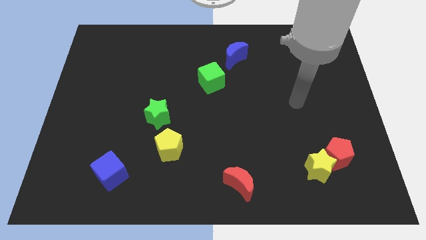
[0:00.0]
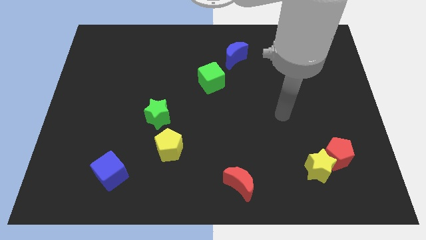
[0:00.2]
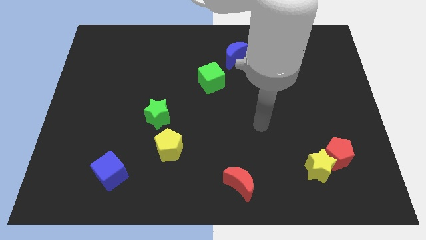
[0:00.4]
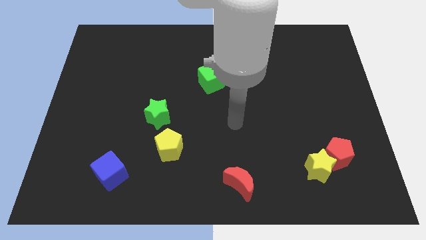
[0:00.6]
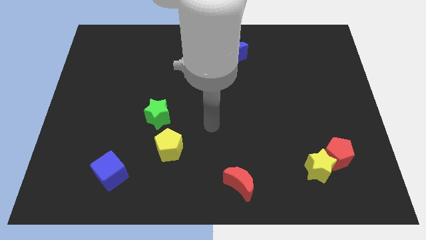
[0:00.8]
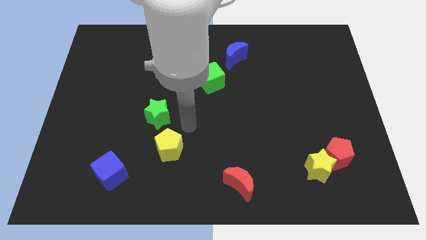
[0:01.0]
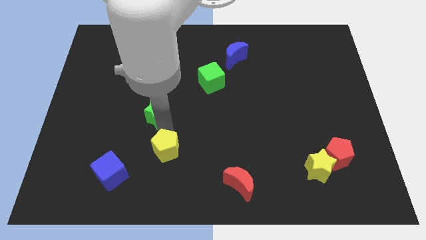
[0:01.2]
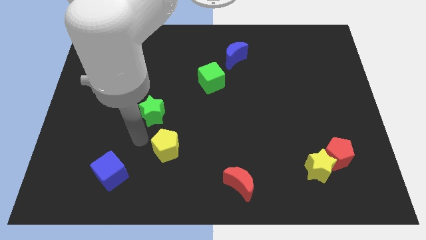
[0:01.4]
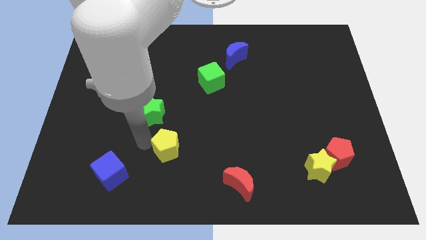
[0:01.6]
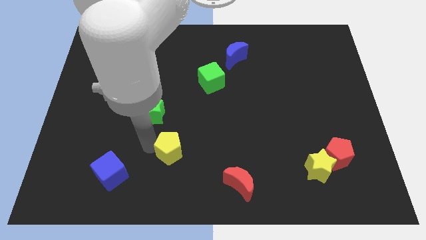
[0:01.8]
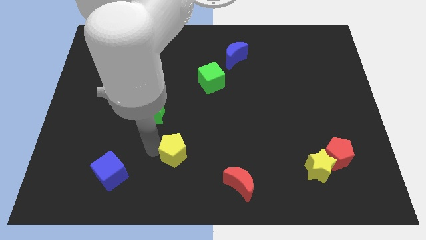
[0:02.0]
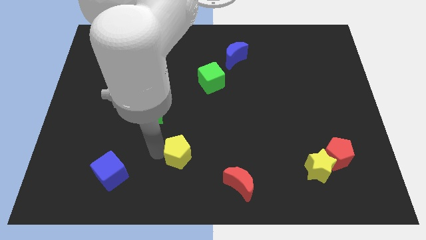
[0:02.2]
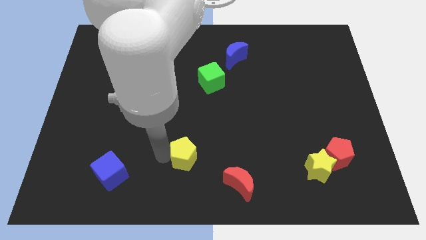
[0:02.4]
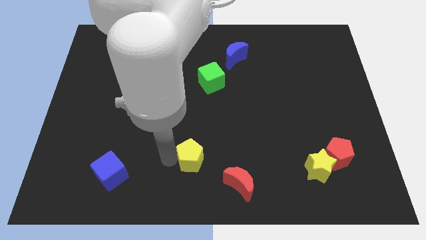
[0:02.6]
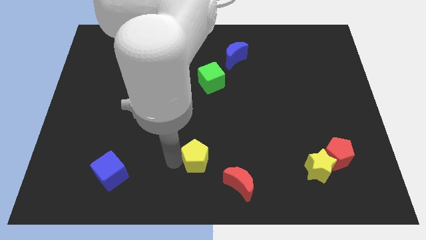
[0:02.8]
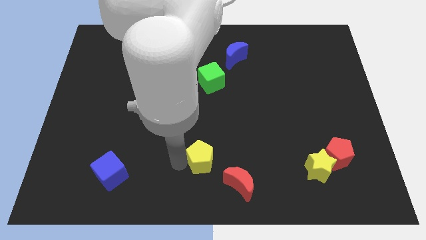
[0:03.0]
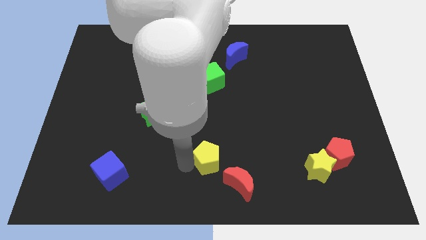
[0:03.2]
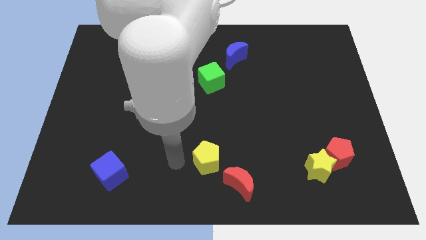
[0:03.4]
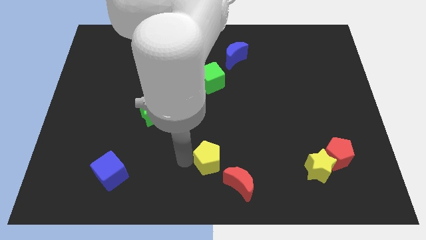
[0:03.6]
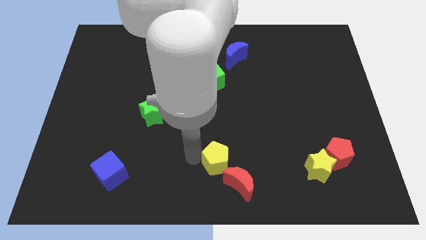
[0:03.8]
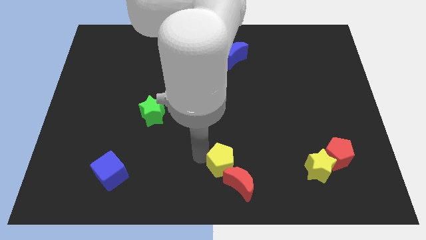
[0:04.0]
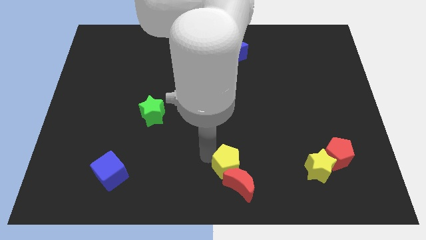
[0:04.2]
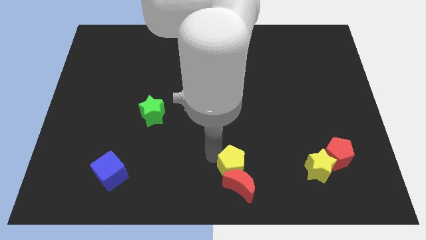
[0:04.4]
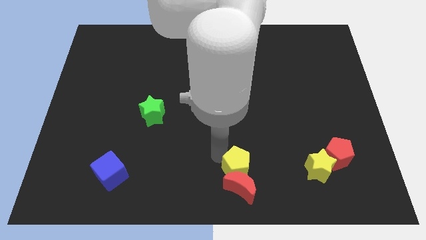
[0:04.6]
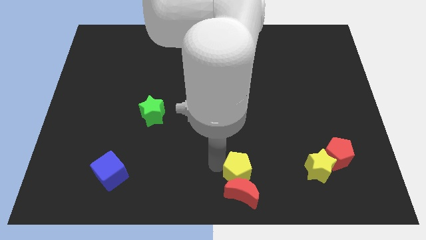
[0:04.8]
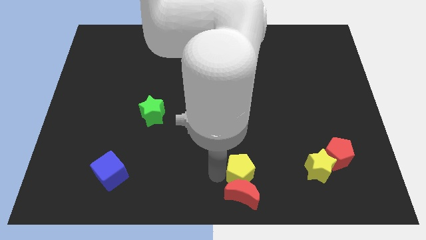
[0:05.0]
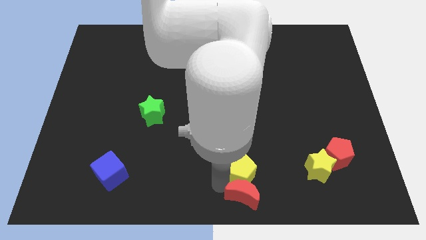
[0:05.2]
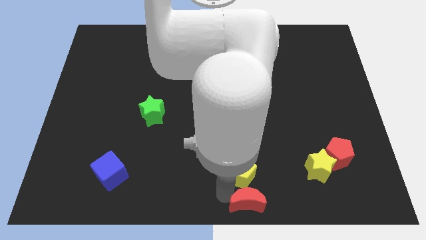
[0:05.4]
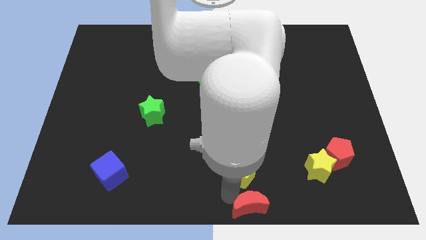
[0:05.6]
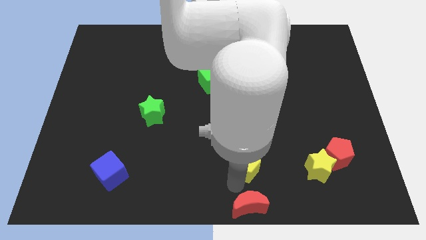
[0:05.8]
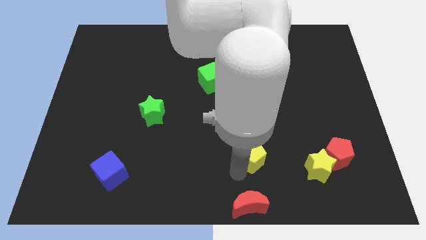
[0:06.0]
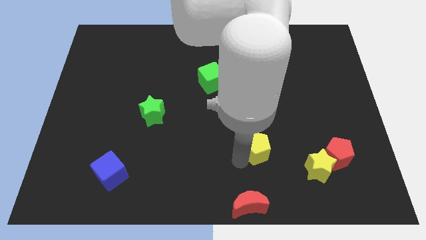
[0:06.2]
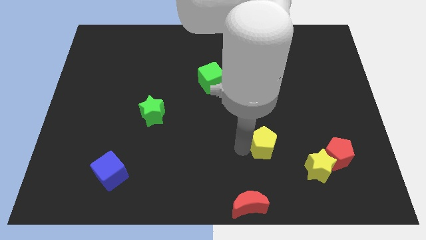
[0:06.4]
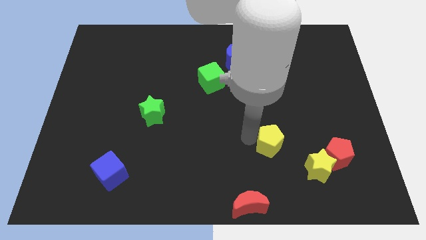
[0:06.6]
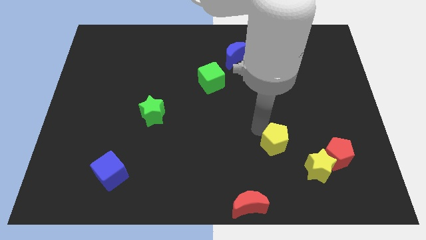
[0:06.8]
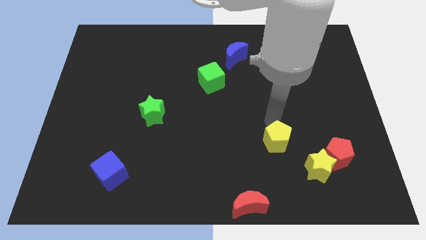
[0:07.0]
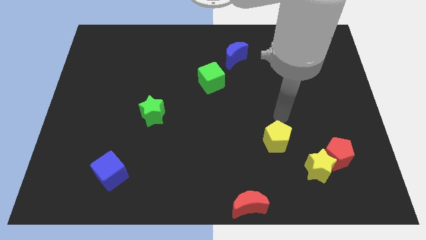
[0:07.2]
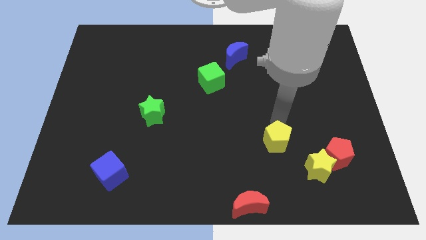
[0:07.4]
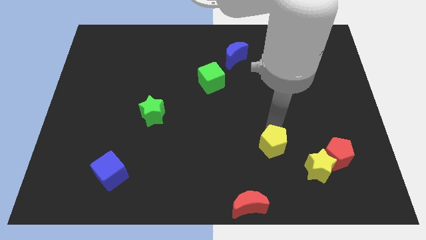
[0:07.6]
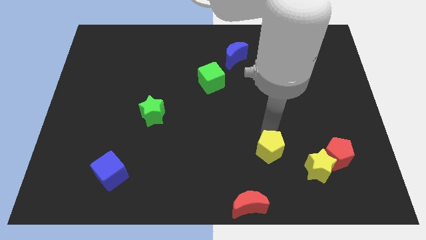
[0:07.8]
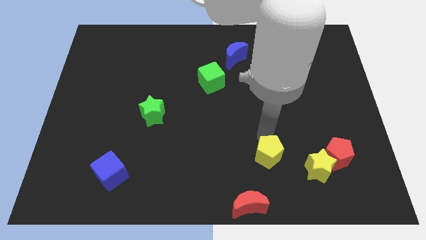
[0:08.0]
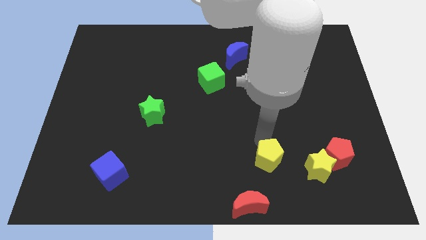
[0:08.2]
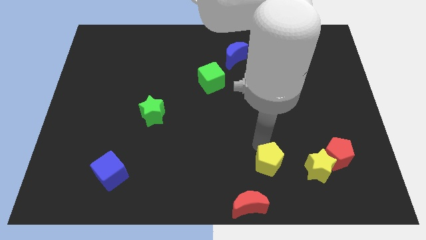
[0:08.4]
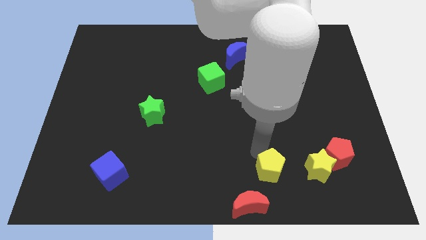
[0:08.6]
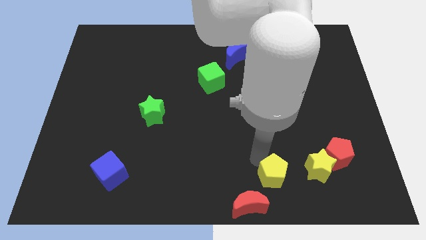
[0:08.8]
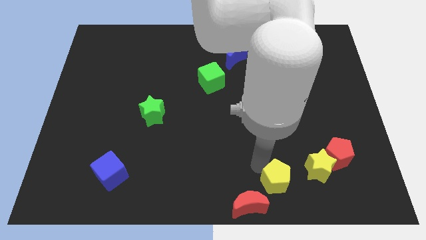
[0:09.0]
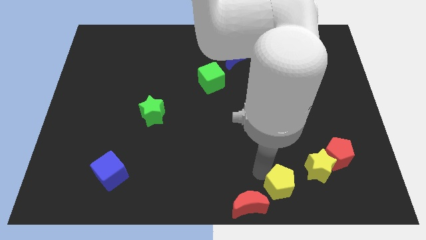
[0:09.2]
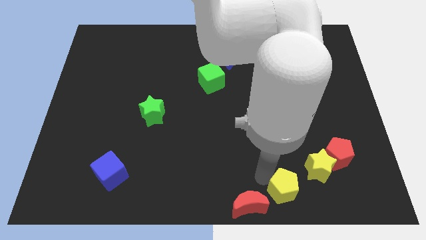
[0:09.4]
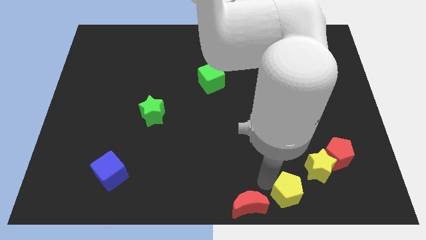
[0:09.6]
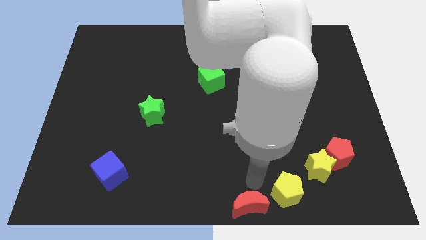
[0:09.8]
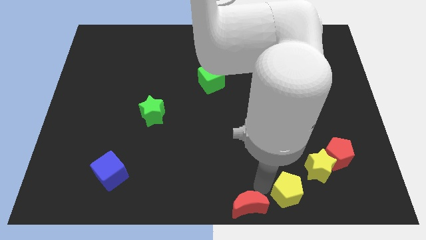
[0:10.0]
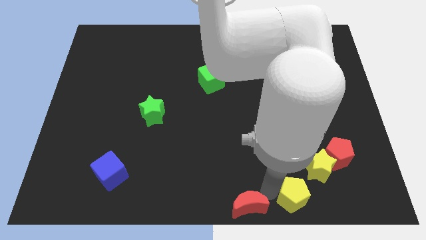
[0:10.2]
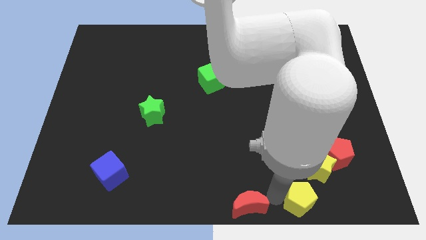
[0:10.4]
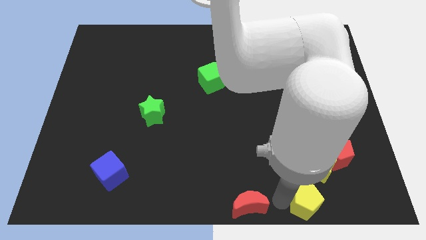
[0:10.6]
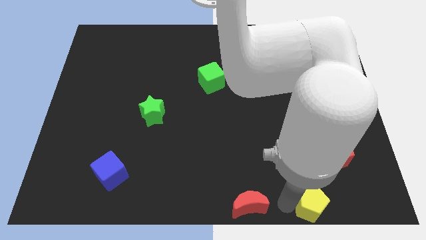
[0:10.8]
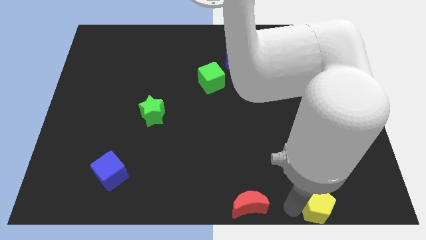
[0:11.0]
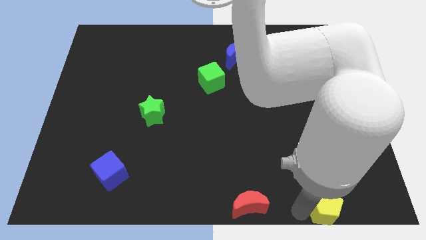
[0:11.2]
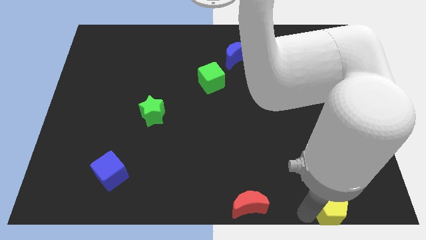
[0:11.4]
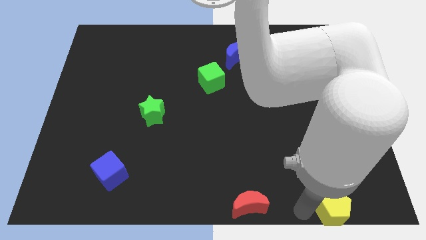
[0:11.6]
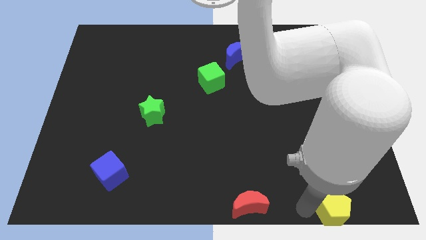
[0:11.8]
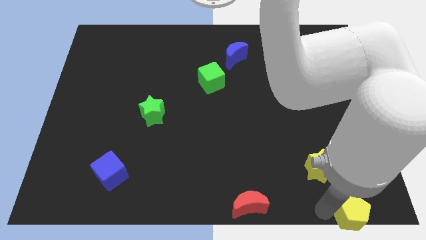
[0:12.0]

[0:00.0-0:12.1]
push the yellow pentagon to the bottom right

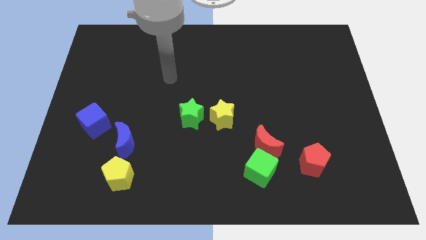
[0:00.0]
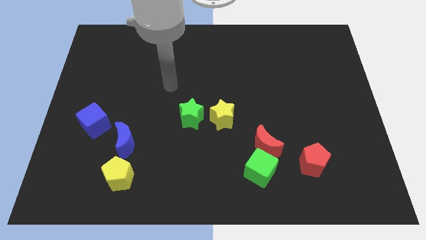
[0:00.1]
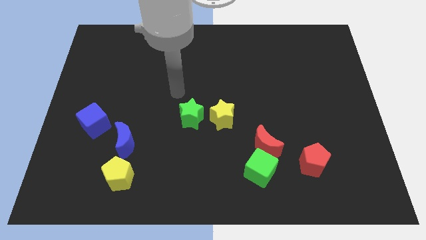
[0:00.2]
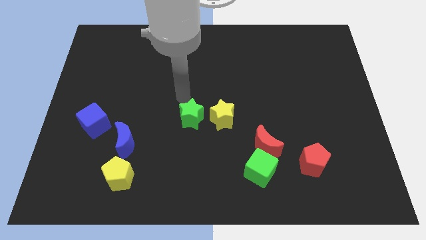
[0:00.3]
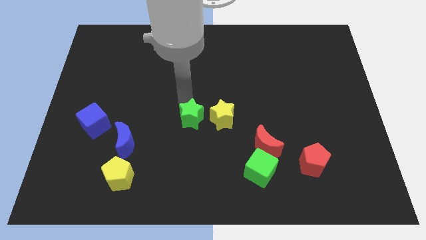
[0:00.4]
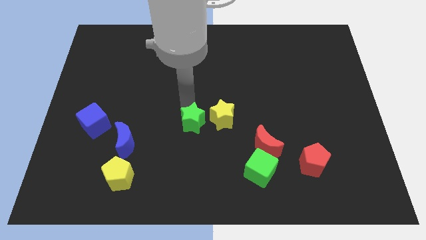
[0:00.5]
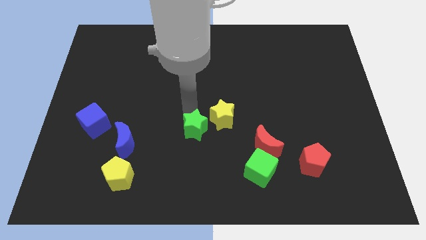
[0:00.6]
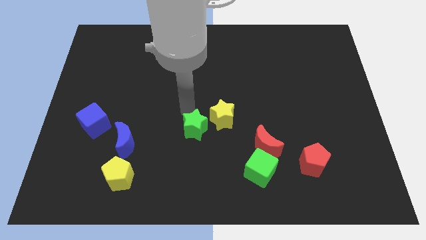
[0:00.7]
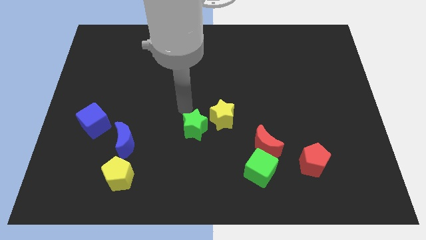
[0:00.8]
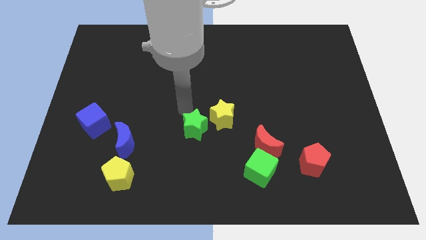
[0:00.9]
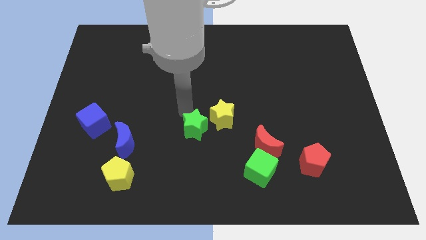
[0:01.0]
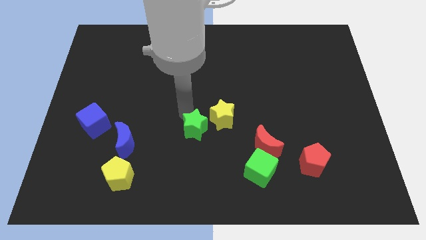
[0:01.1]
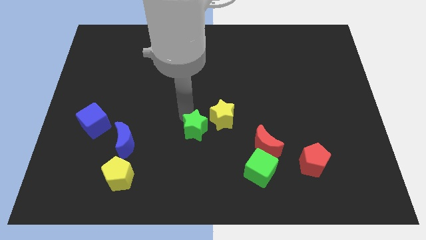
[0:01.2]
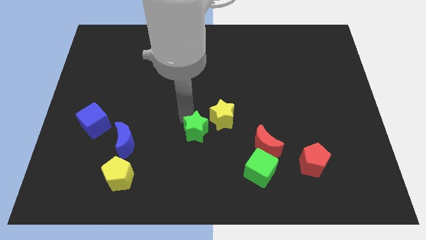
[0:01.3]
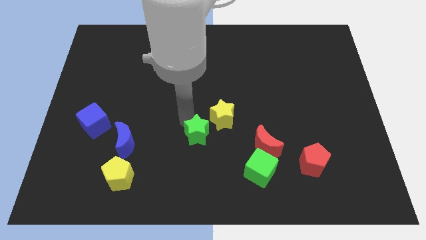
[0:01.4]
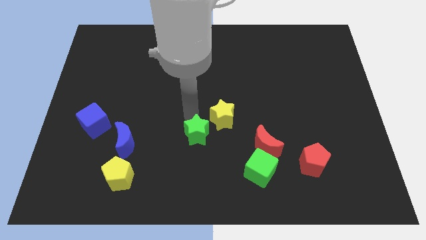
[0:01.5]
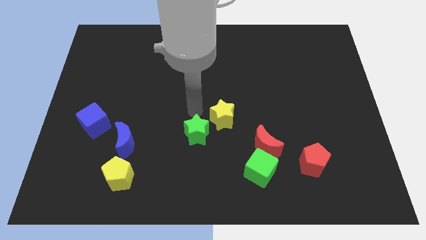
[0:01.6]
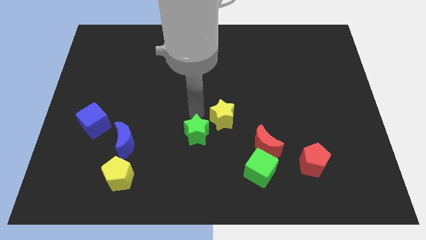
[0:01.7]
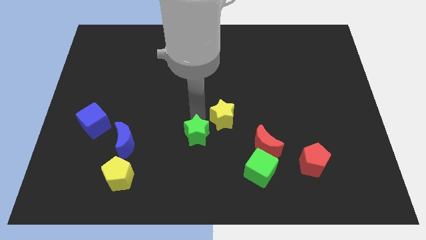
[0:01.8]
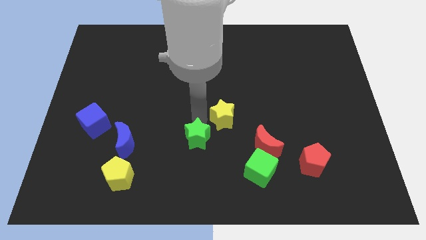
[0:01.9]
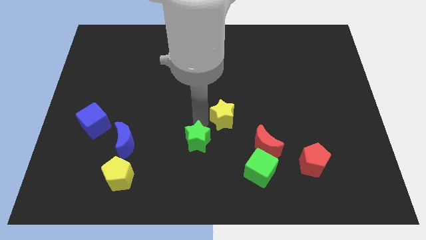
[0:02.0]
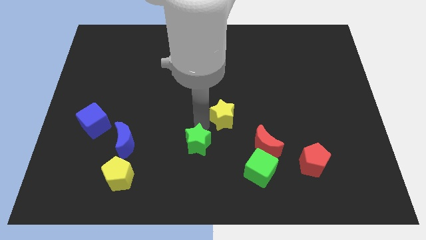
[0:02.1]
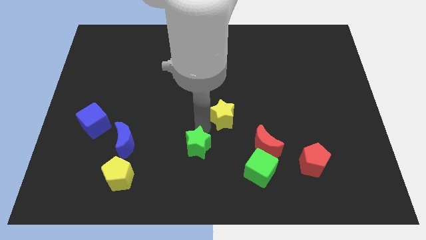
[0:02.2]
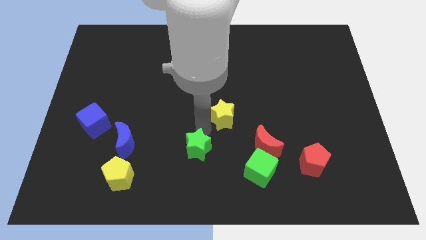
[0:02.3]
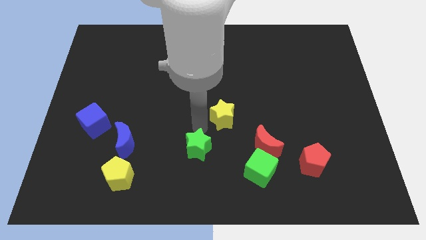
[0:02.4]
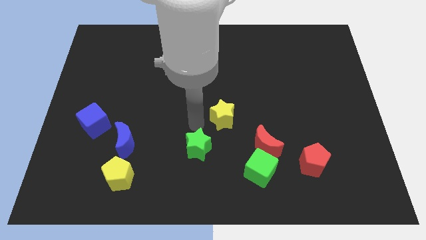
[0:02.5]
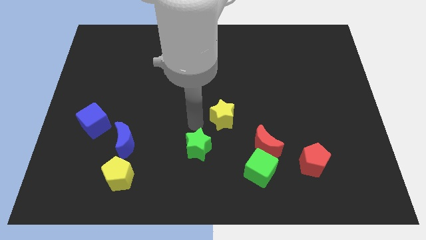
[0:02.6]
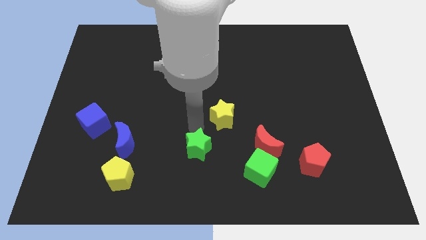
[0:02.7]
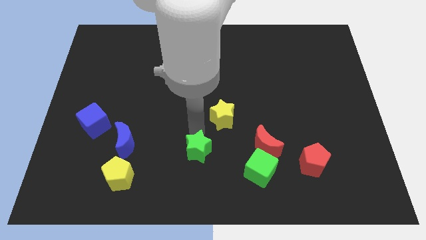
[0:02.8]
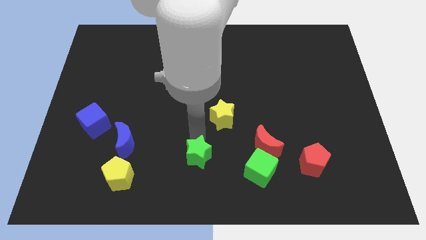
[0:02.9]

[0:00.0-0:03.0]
move the green star to the bottom
